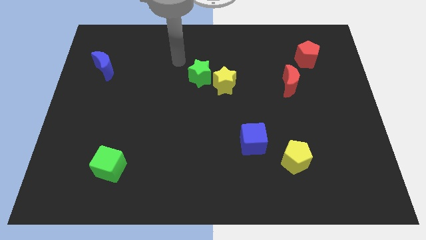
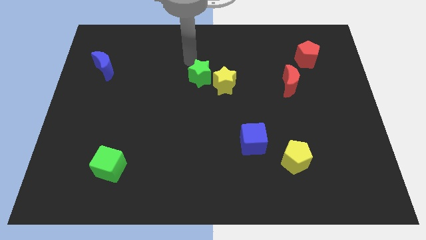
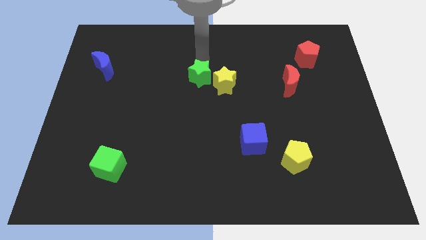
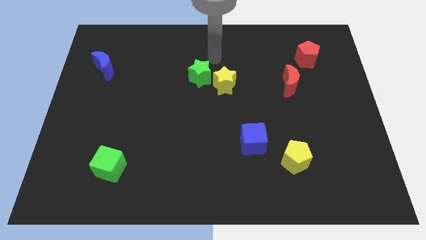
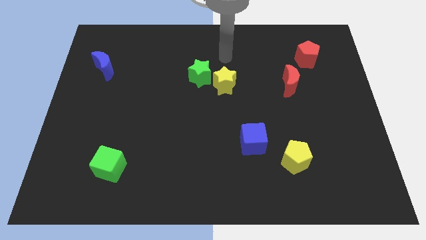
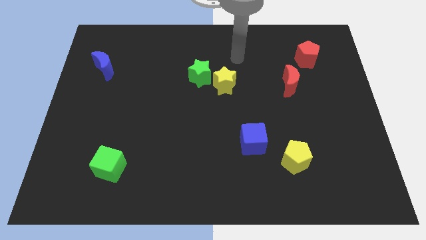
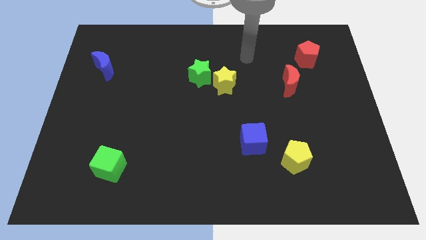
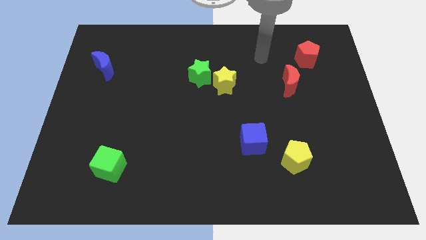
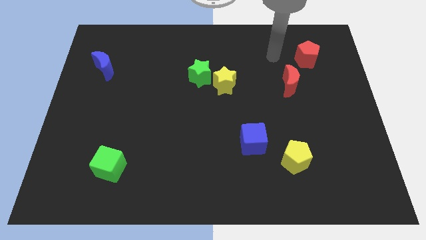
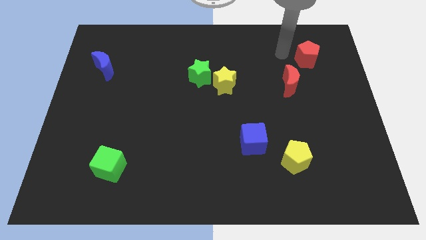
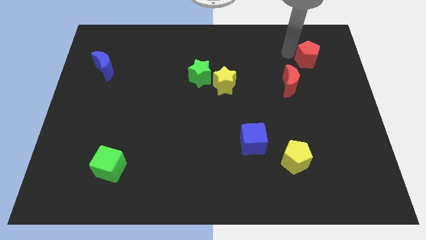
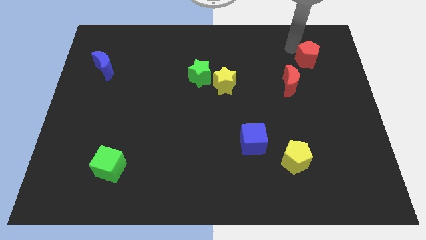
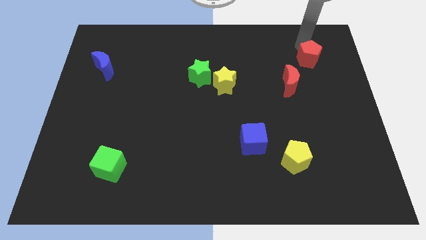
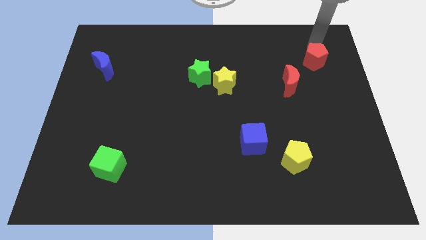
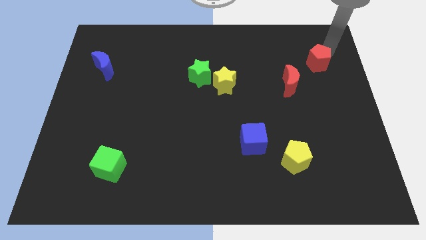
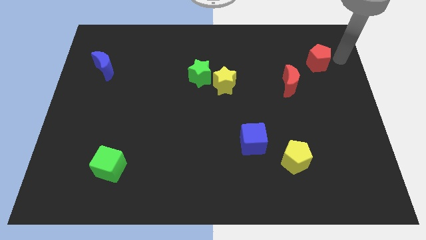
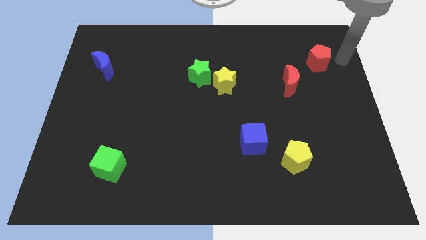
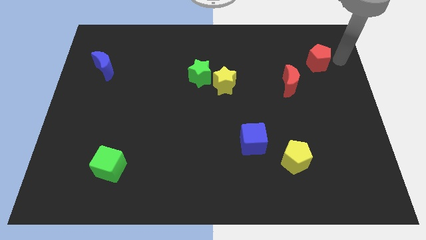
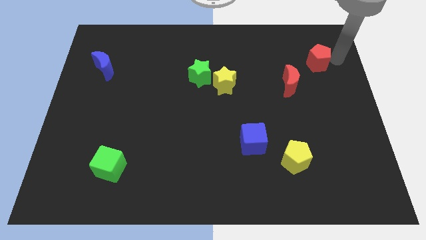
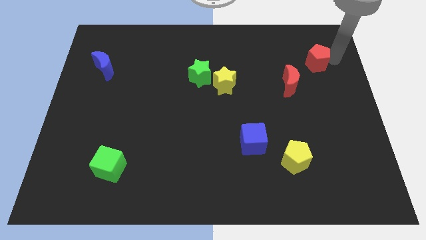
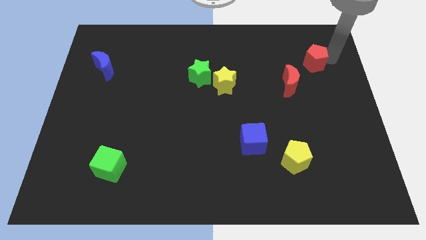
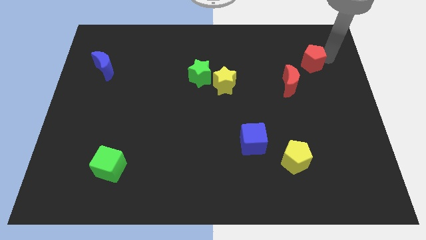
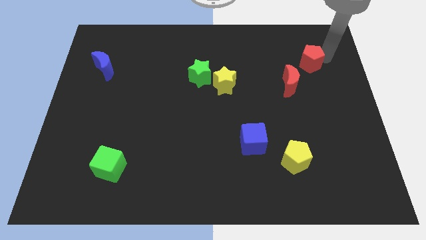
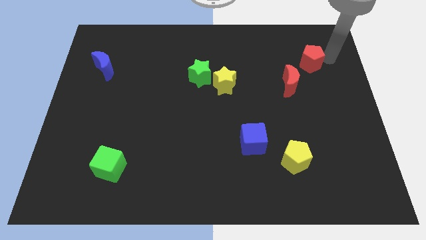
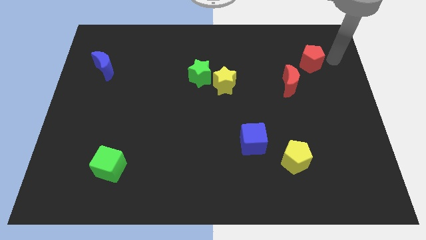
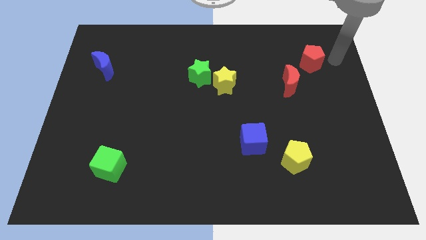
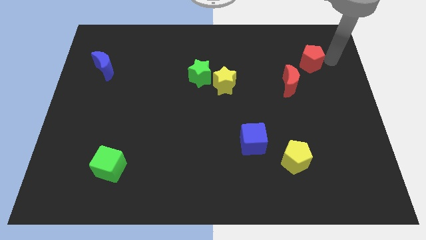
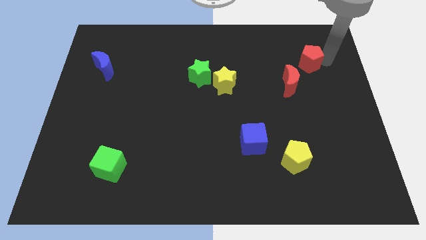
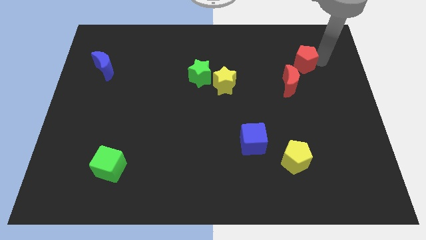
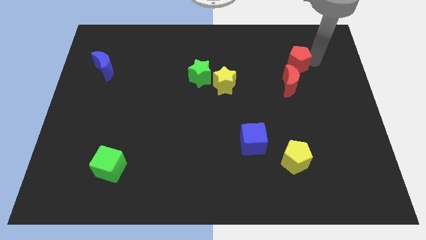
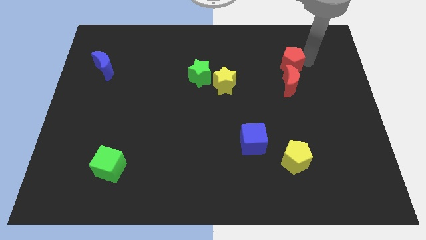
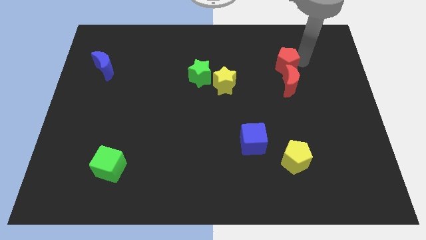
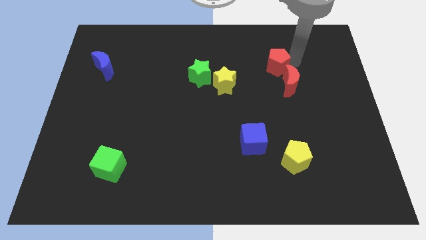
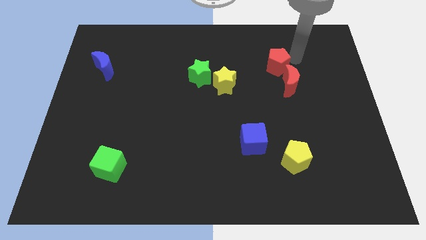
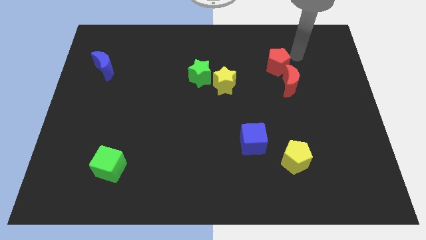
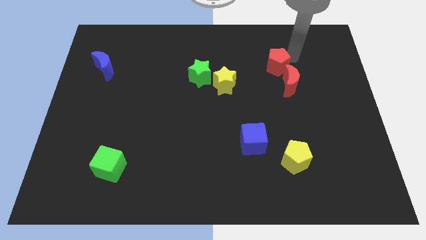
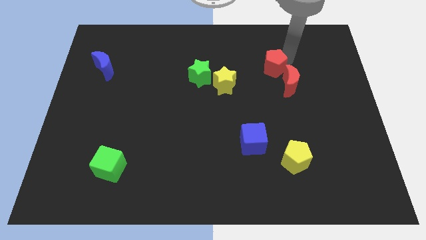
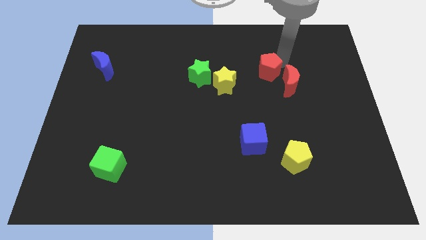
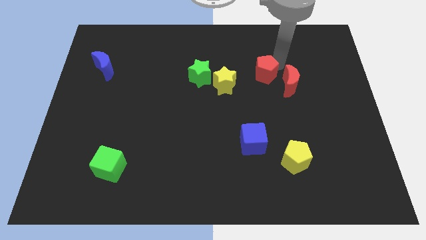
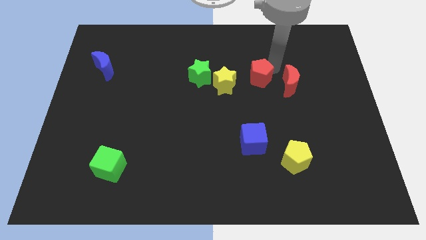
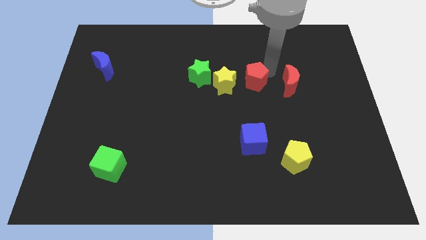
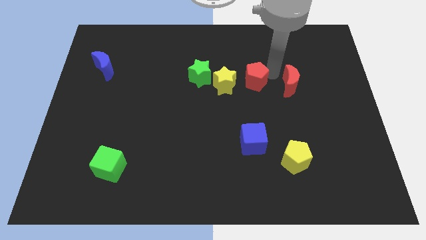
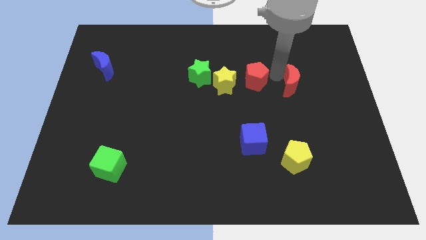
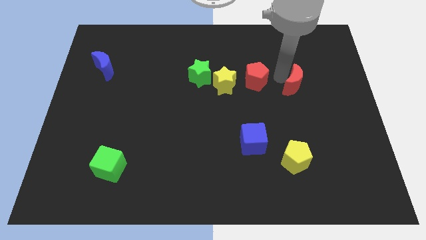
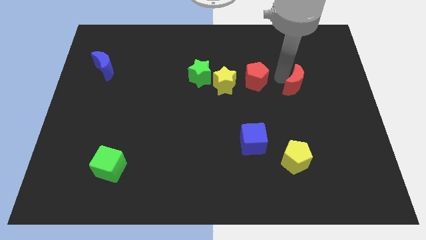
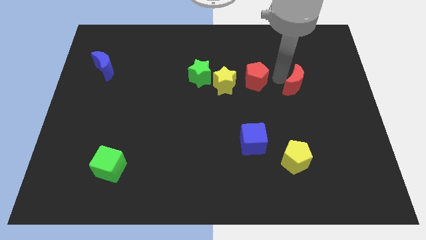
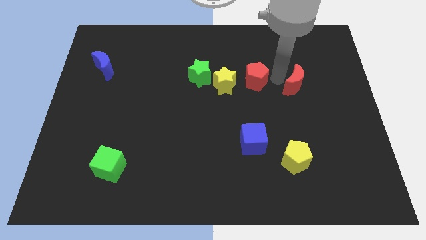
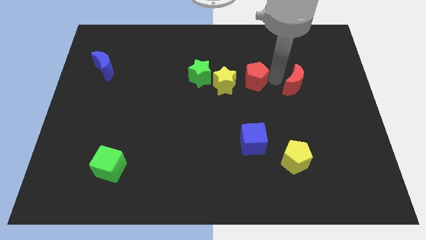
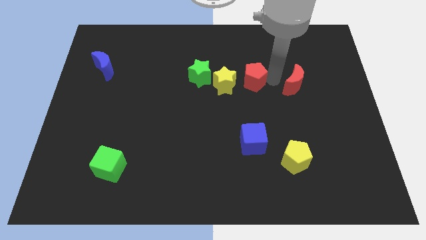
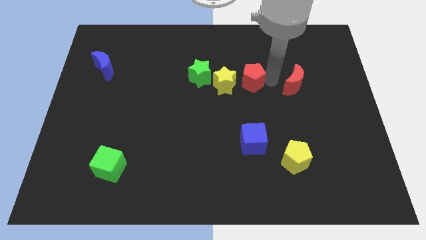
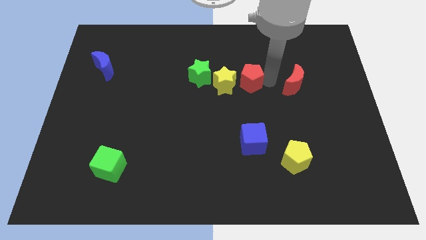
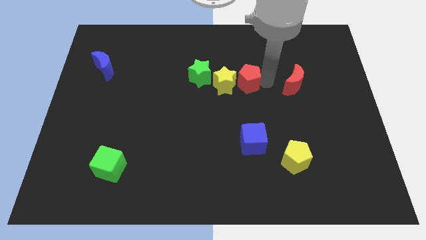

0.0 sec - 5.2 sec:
push the red pentagon towards the yellow star

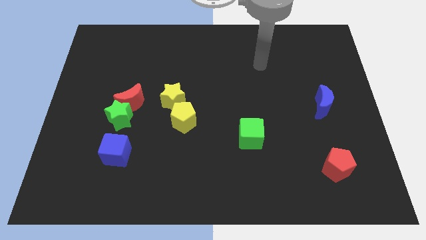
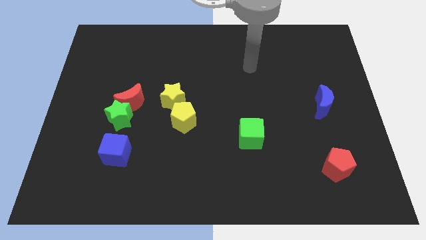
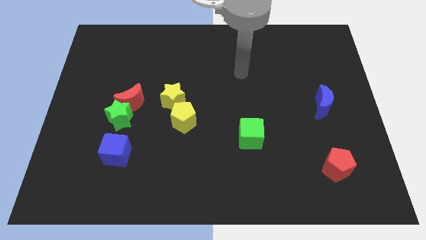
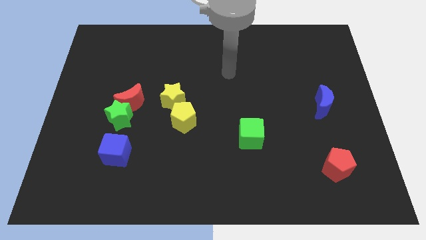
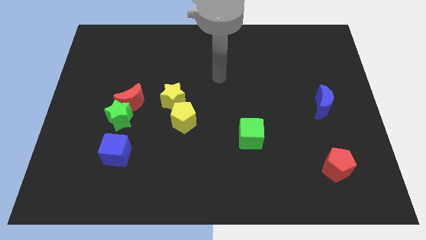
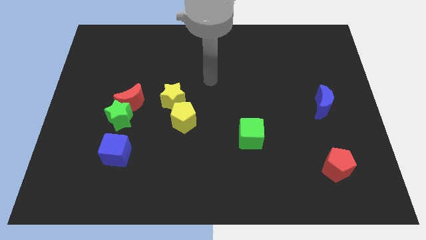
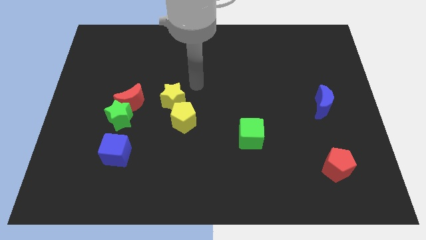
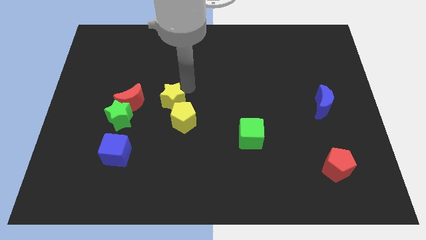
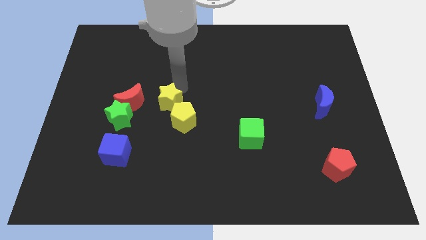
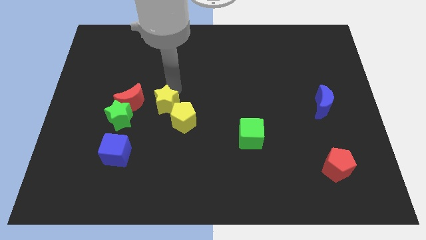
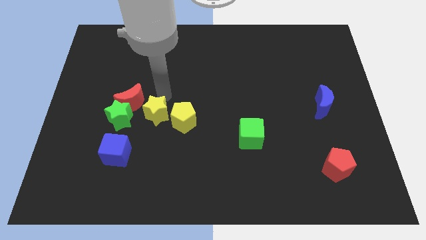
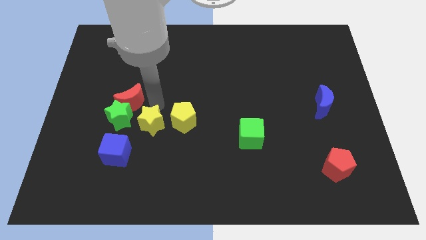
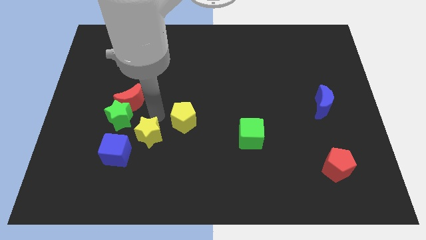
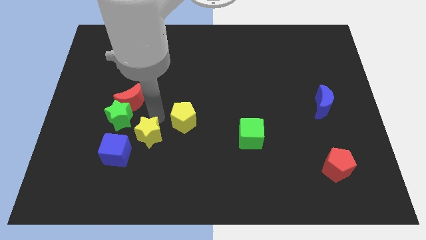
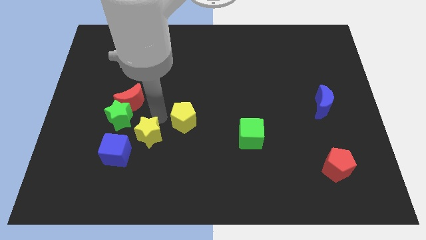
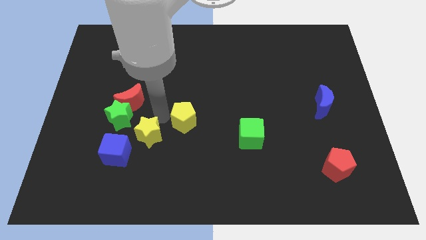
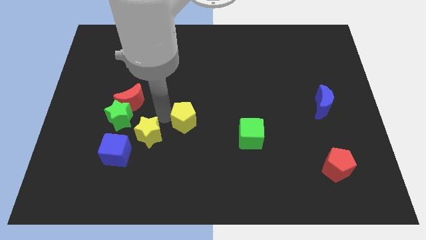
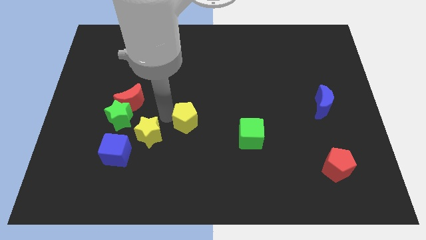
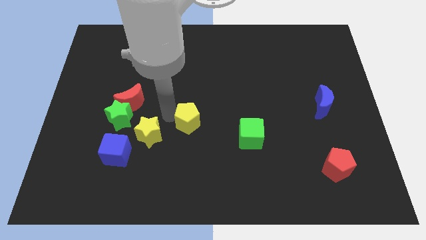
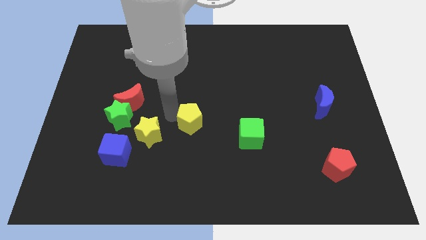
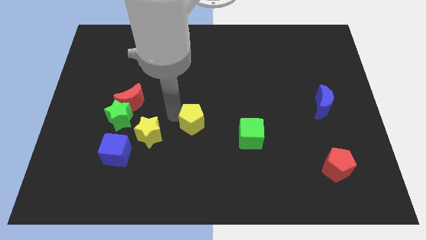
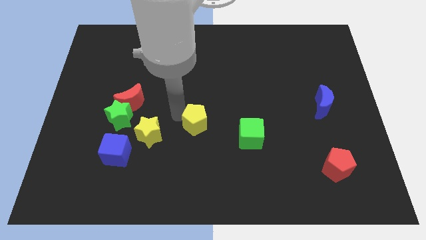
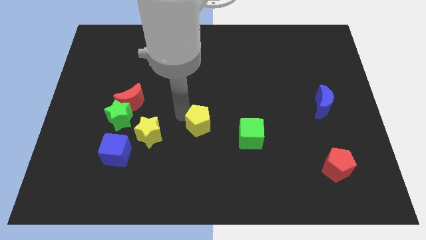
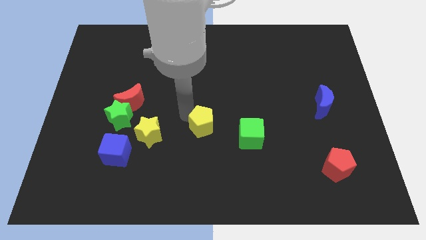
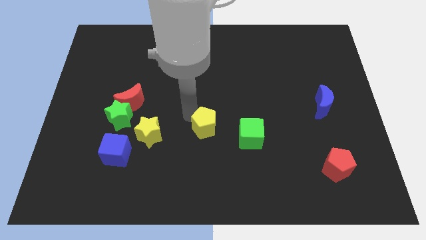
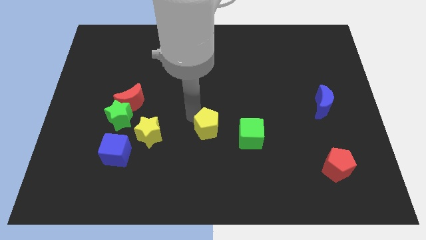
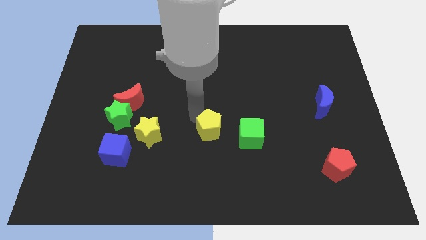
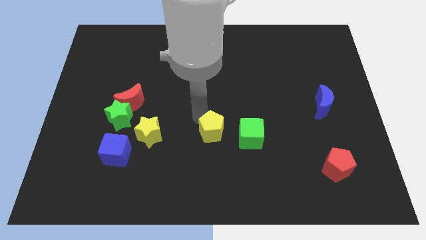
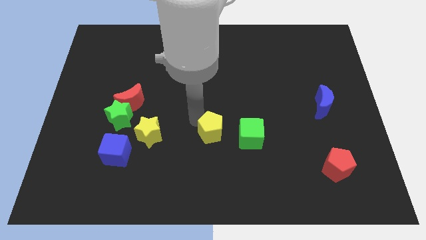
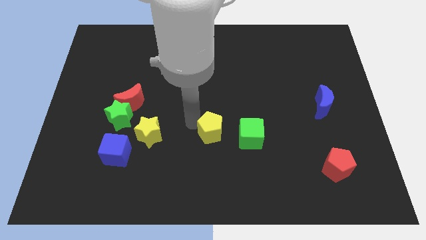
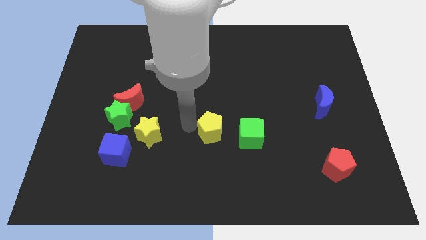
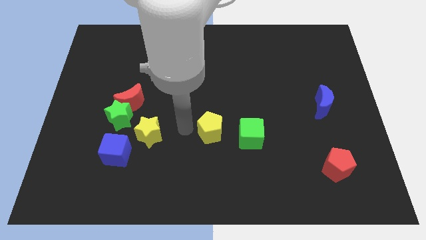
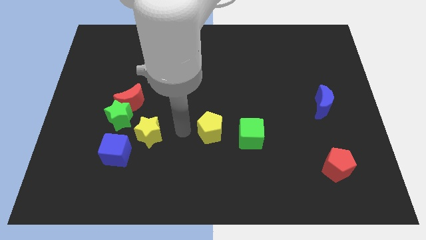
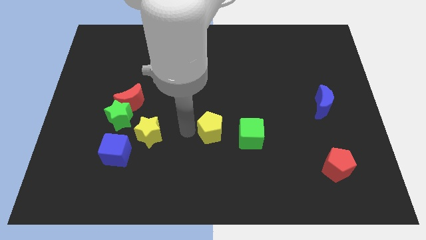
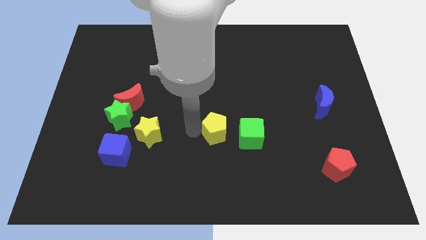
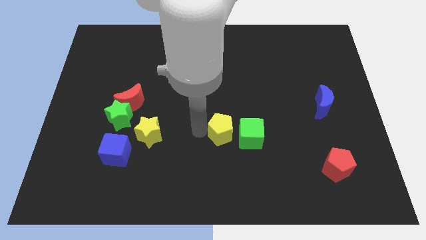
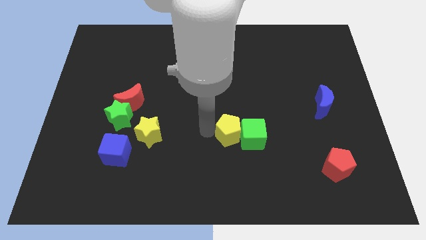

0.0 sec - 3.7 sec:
put the yellow pentagon to the green cube
